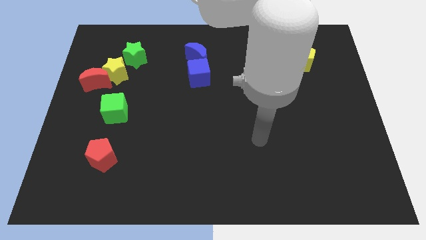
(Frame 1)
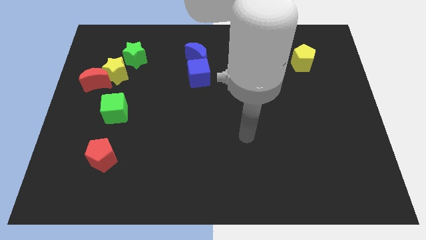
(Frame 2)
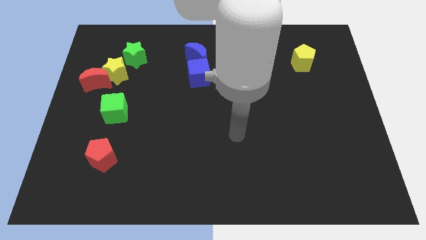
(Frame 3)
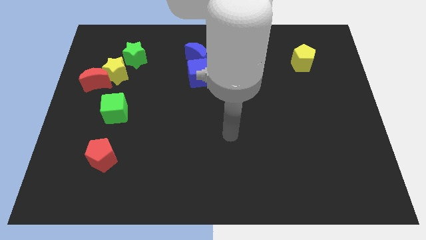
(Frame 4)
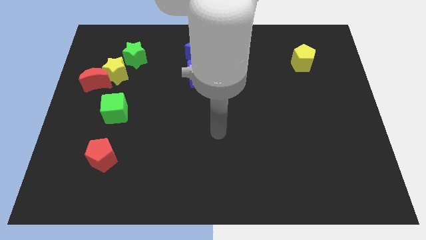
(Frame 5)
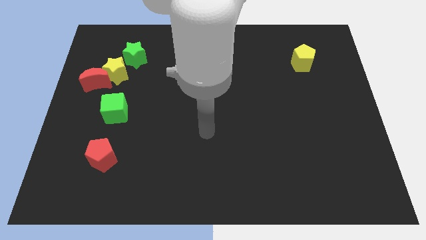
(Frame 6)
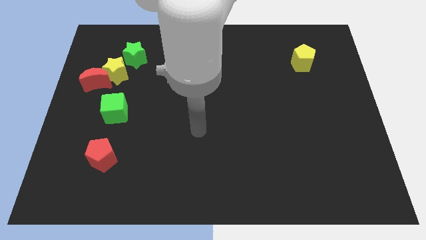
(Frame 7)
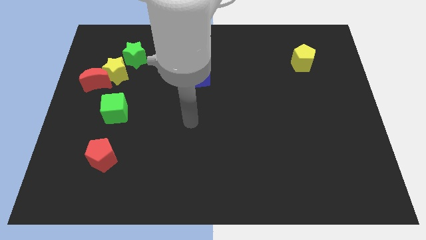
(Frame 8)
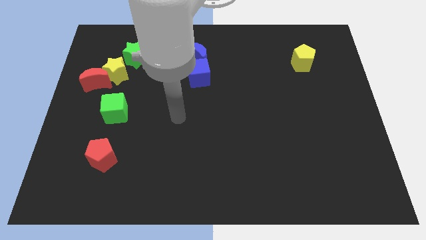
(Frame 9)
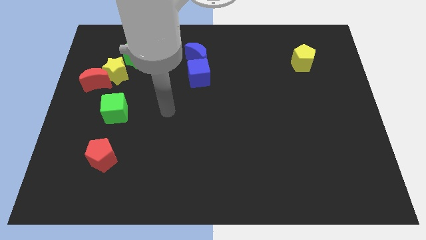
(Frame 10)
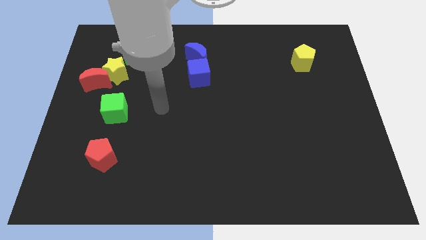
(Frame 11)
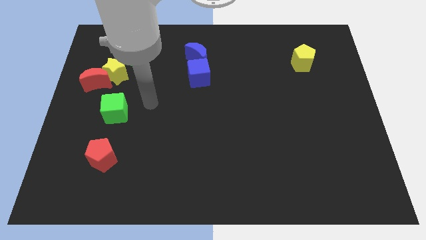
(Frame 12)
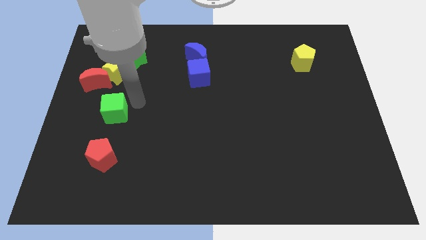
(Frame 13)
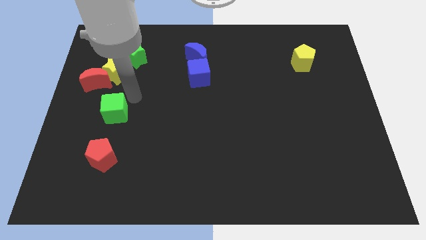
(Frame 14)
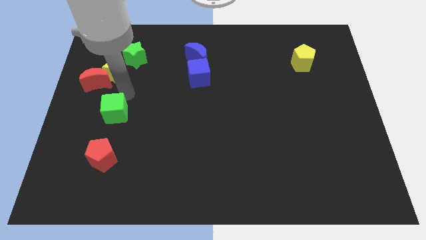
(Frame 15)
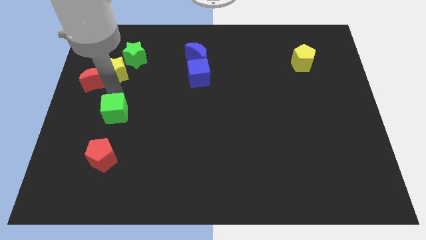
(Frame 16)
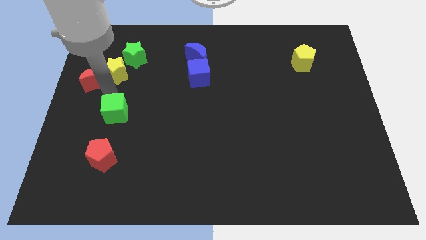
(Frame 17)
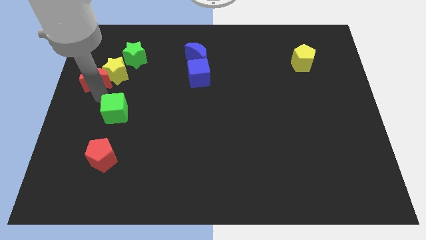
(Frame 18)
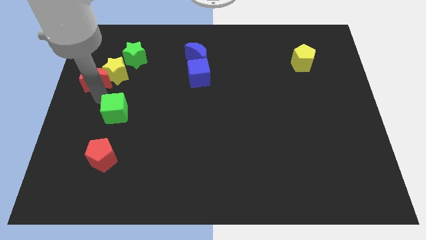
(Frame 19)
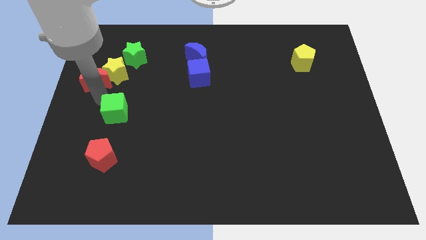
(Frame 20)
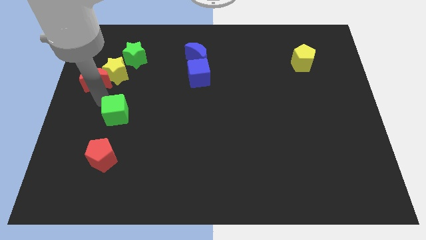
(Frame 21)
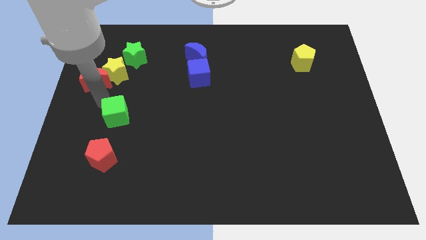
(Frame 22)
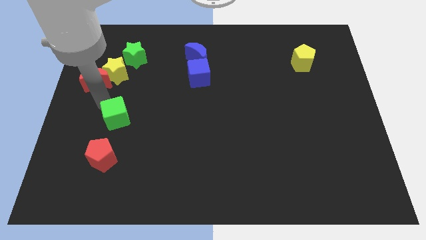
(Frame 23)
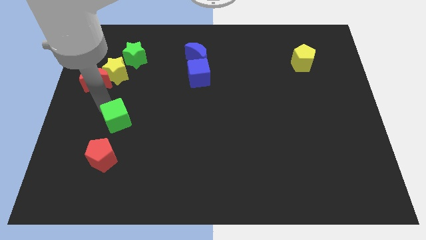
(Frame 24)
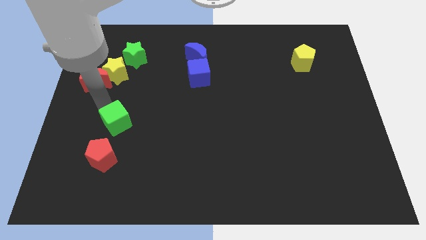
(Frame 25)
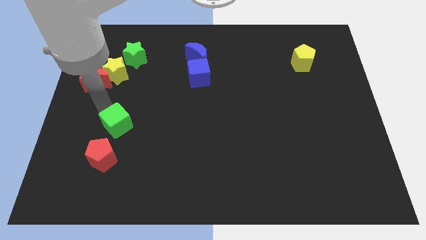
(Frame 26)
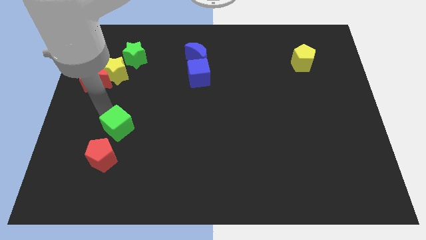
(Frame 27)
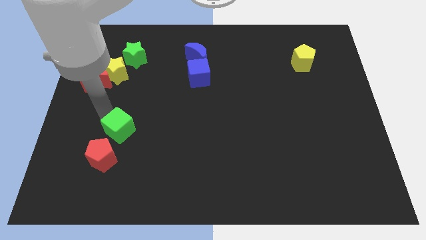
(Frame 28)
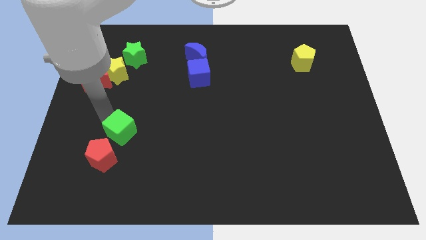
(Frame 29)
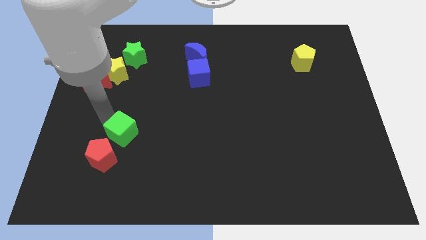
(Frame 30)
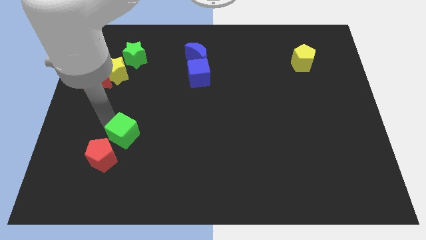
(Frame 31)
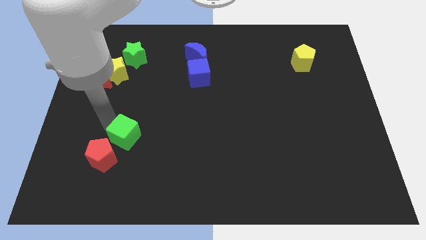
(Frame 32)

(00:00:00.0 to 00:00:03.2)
slightly slide the green cube down and to the right

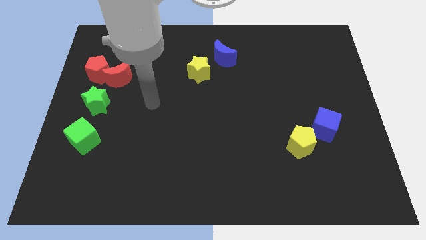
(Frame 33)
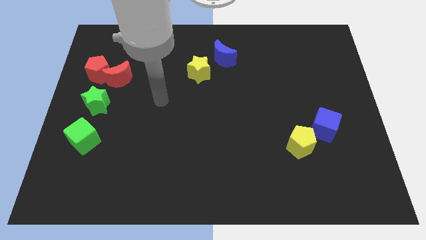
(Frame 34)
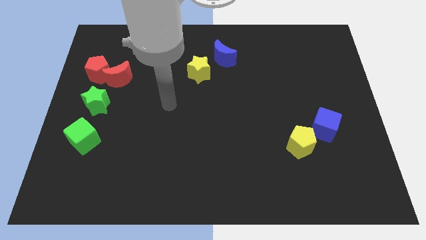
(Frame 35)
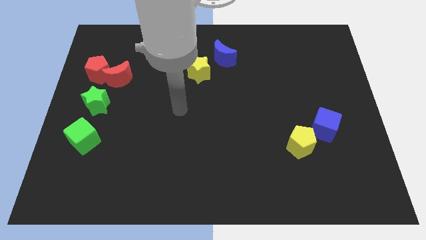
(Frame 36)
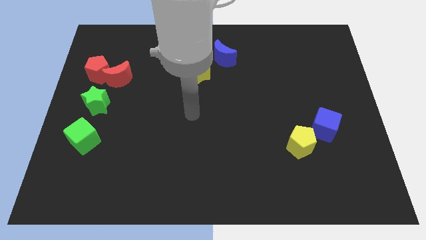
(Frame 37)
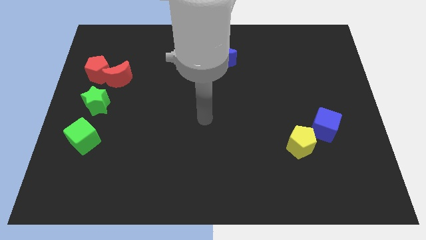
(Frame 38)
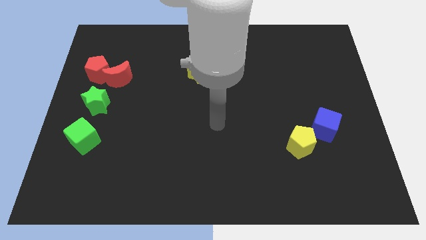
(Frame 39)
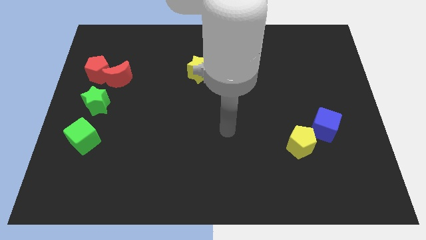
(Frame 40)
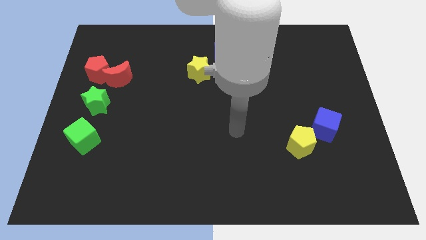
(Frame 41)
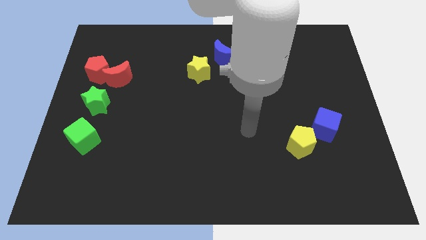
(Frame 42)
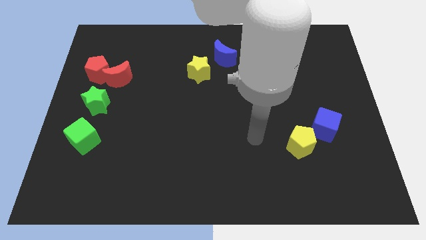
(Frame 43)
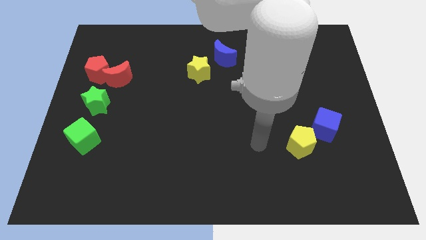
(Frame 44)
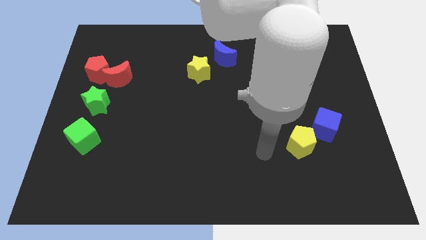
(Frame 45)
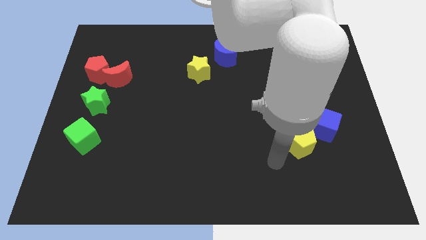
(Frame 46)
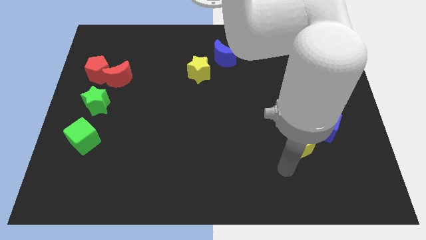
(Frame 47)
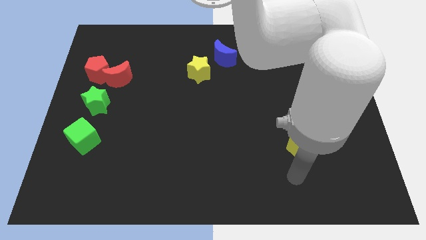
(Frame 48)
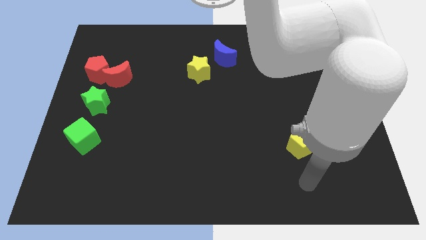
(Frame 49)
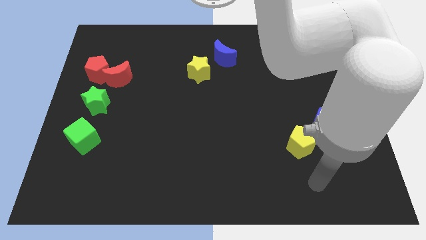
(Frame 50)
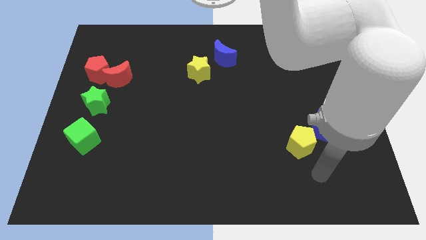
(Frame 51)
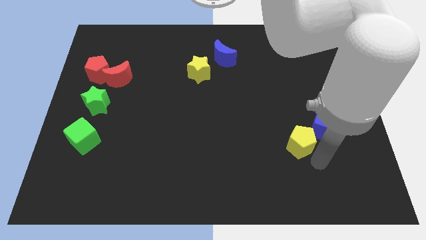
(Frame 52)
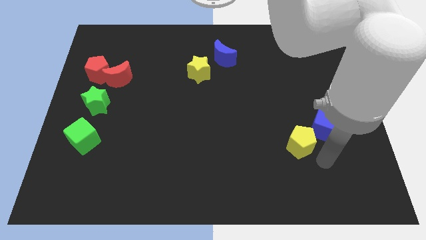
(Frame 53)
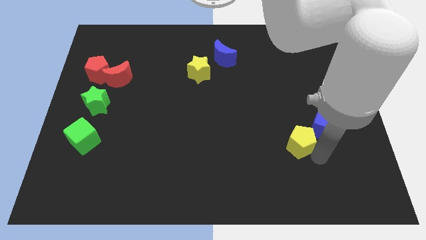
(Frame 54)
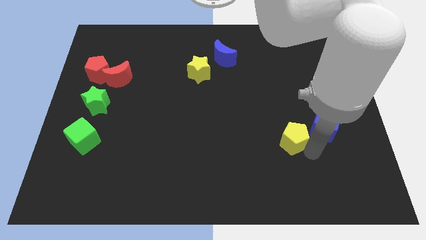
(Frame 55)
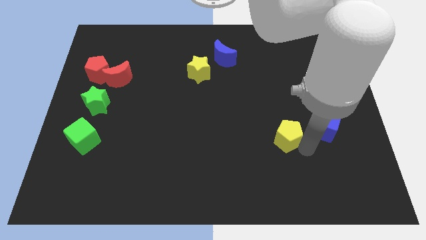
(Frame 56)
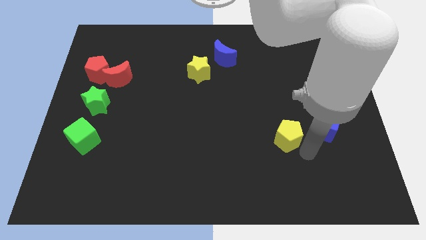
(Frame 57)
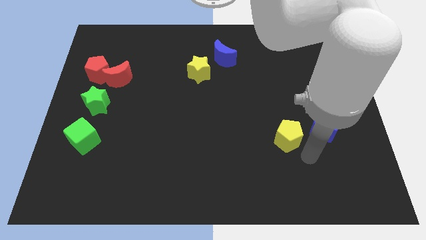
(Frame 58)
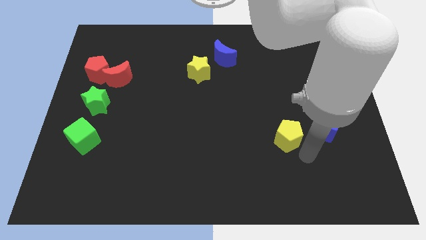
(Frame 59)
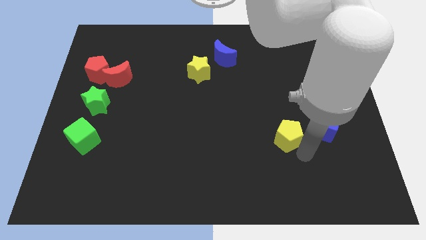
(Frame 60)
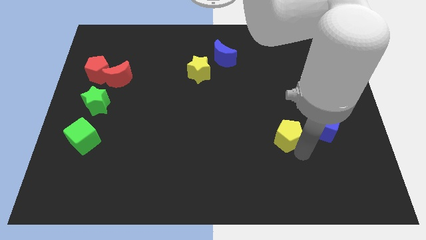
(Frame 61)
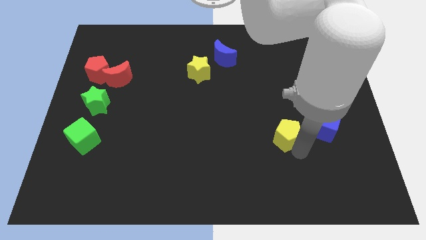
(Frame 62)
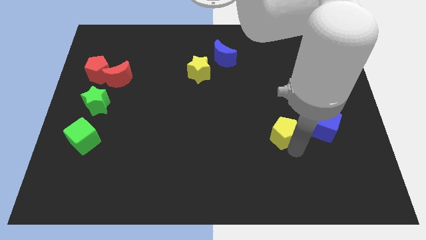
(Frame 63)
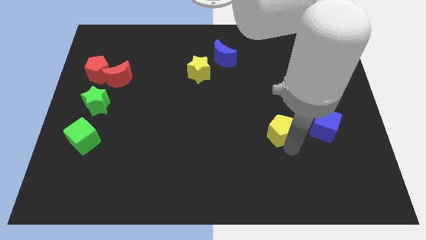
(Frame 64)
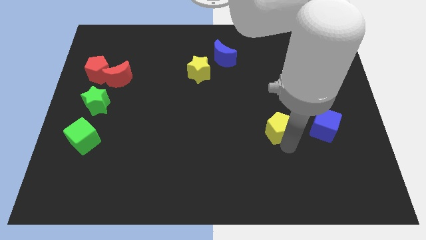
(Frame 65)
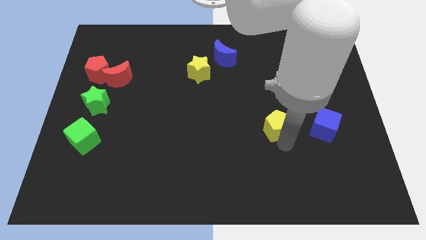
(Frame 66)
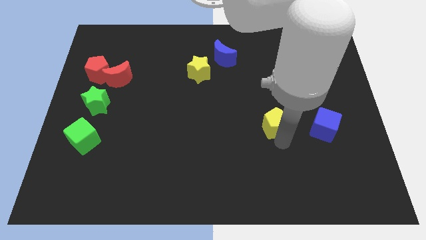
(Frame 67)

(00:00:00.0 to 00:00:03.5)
slightly move the yellow pentagon upwards and left

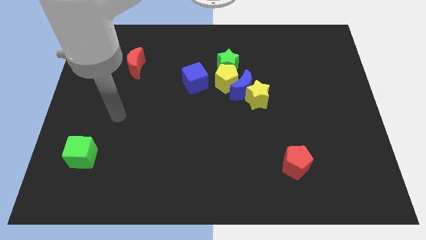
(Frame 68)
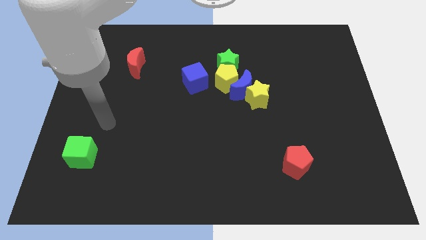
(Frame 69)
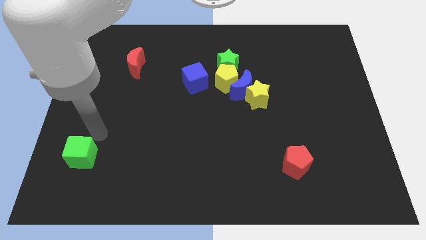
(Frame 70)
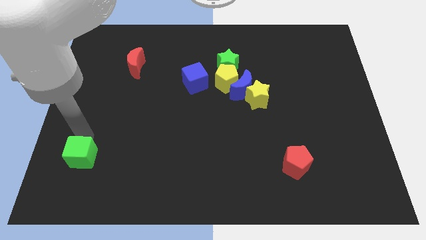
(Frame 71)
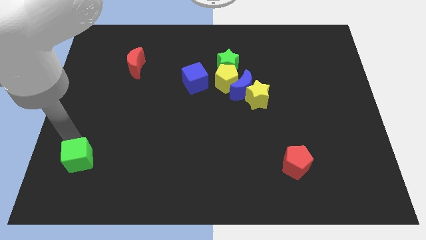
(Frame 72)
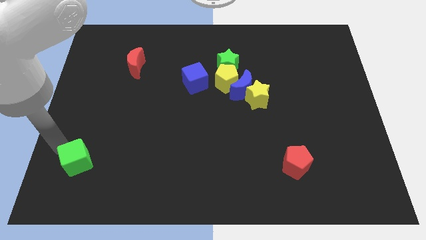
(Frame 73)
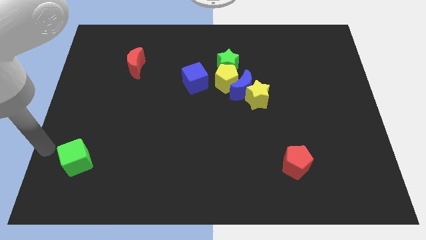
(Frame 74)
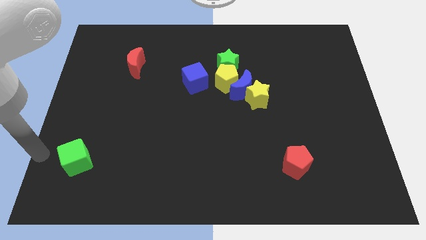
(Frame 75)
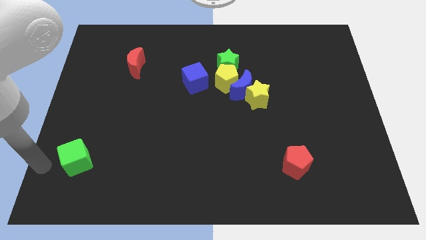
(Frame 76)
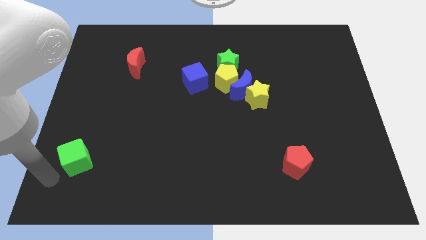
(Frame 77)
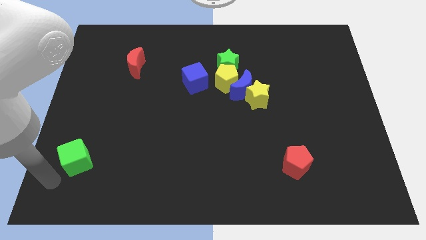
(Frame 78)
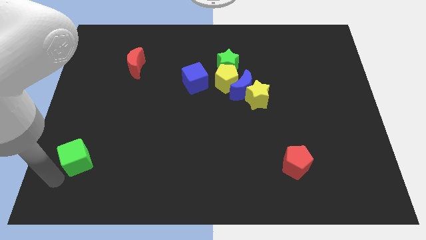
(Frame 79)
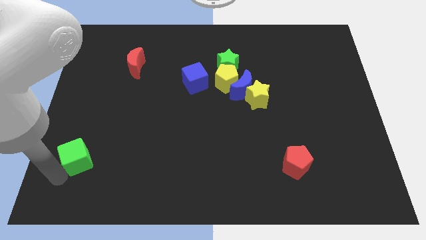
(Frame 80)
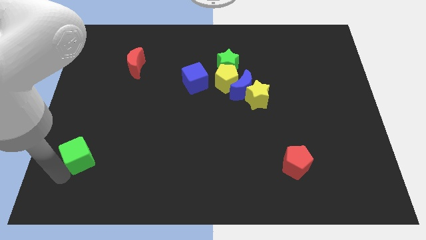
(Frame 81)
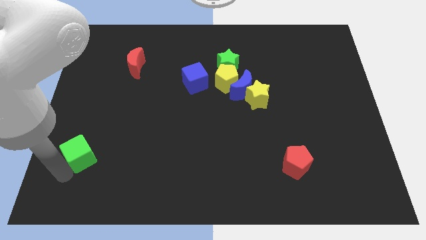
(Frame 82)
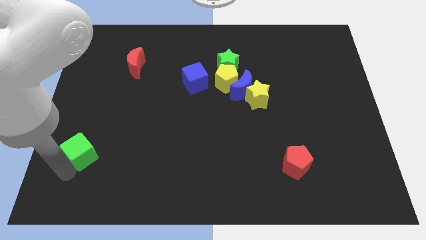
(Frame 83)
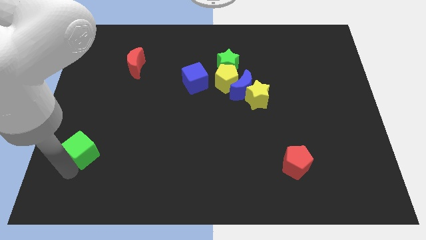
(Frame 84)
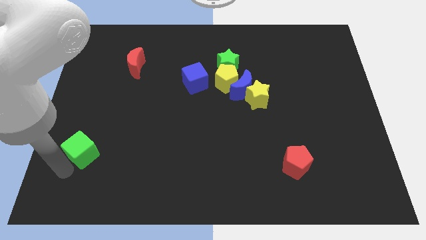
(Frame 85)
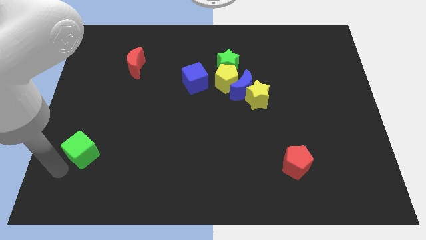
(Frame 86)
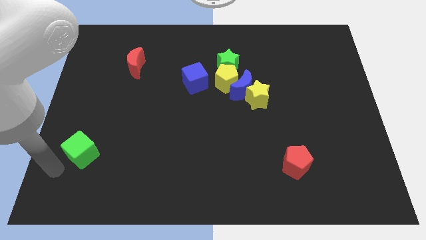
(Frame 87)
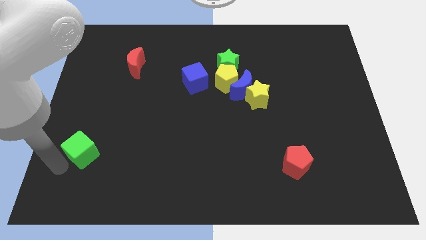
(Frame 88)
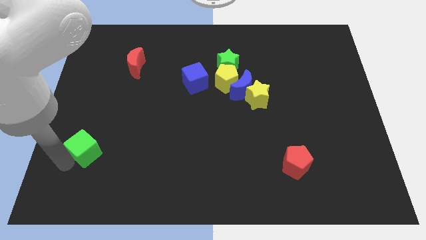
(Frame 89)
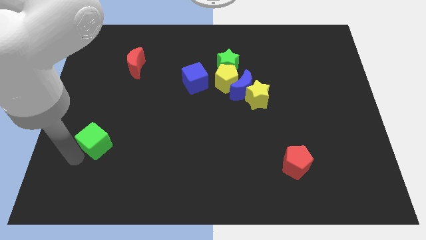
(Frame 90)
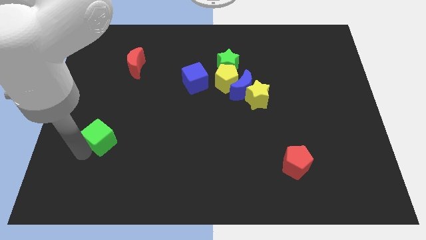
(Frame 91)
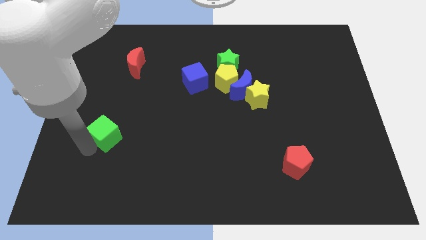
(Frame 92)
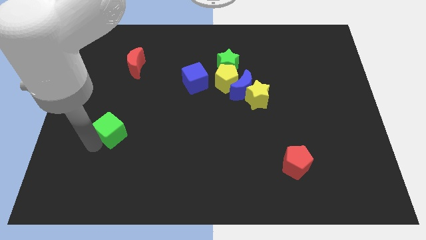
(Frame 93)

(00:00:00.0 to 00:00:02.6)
slightly slide the green cube diagonally upwards and right
